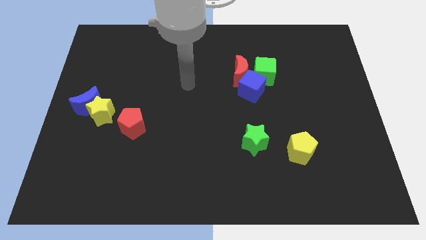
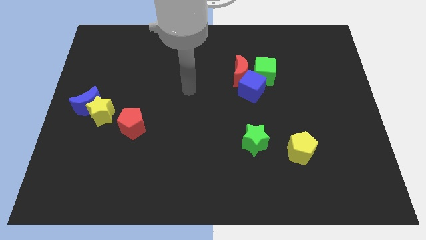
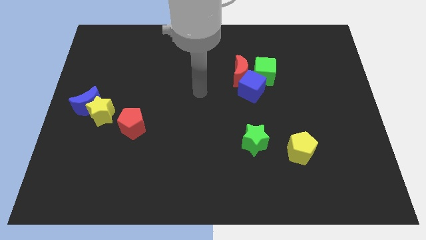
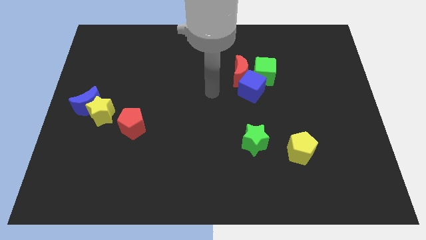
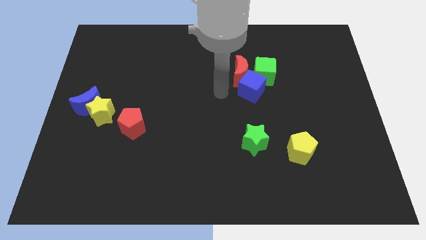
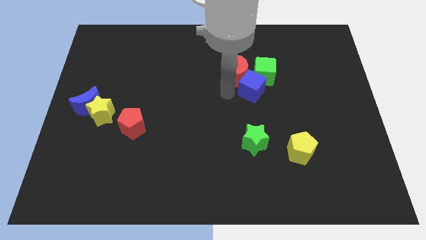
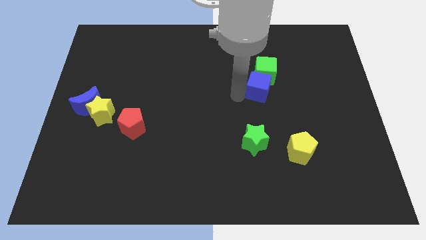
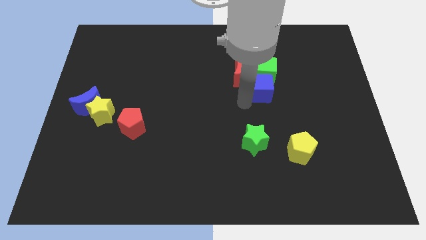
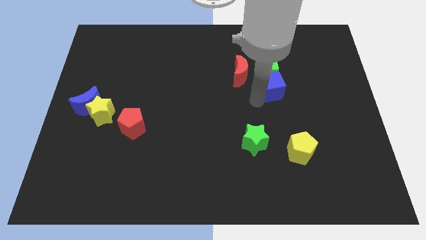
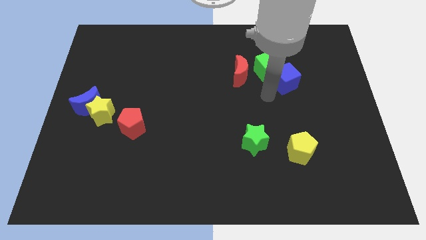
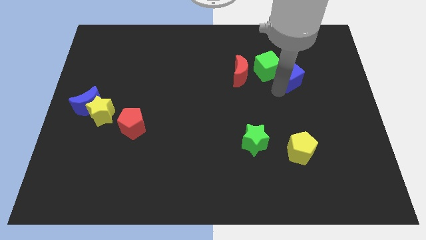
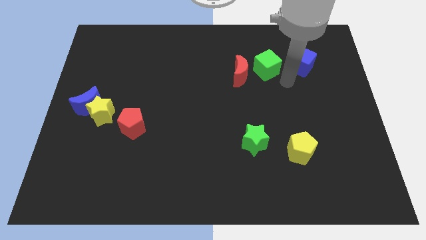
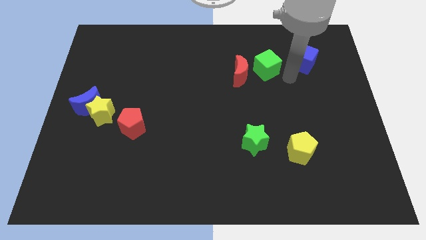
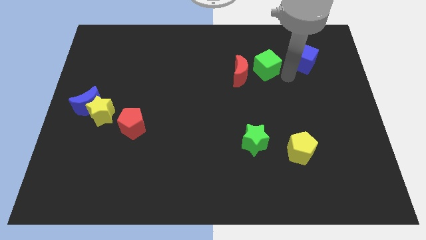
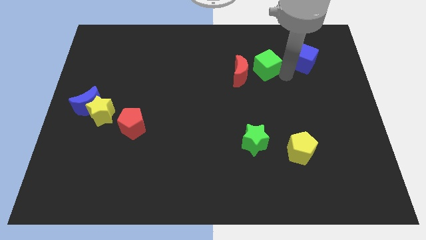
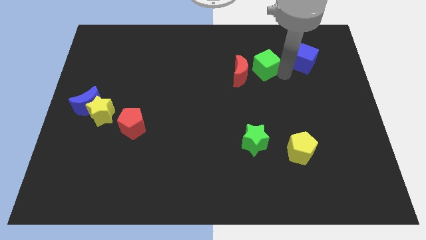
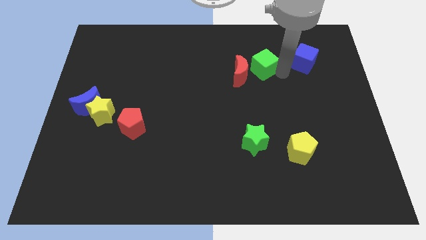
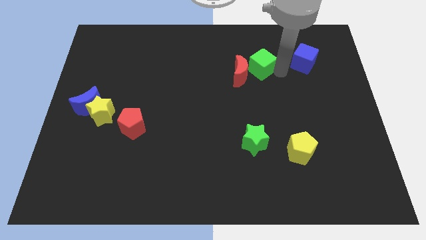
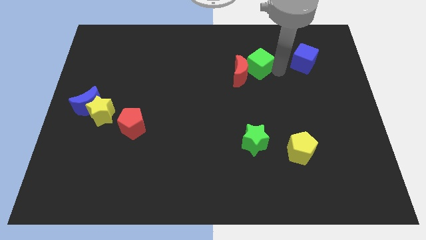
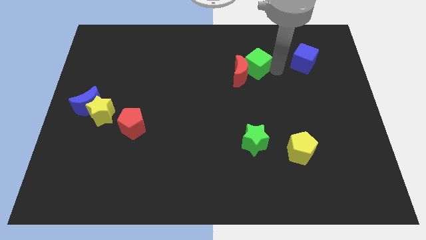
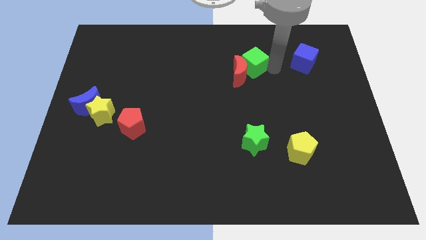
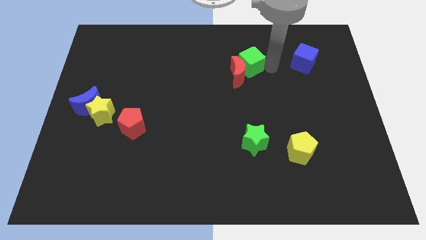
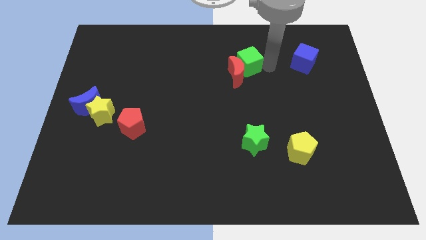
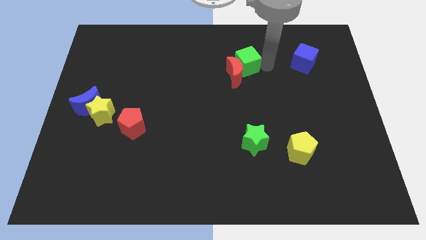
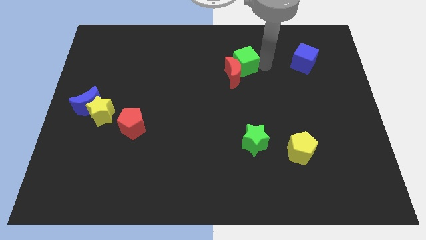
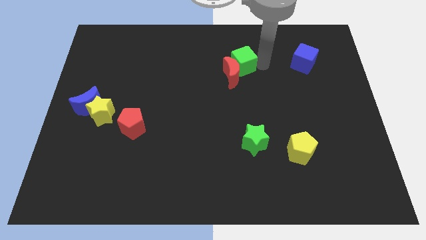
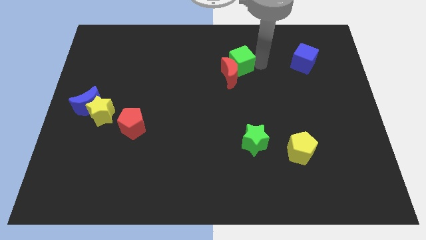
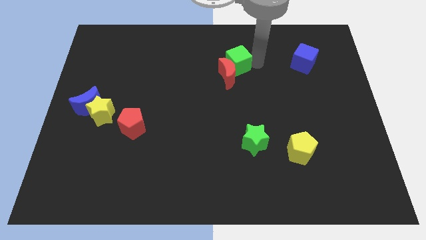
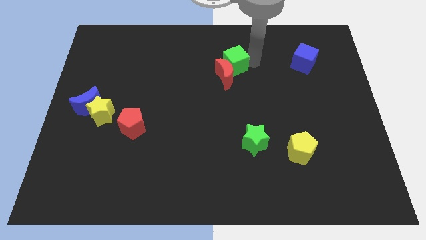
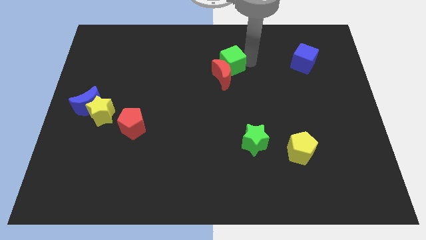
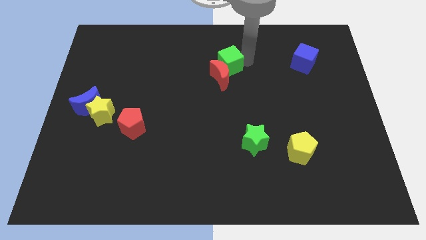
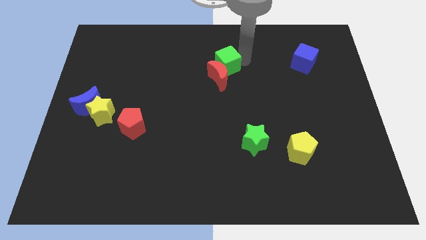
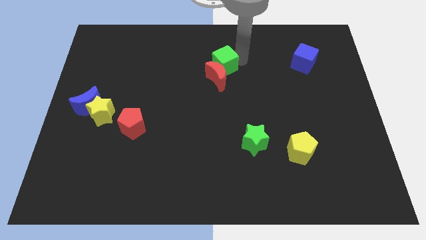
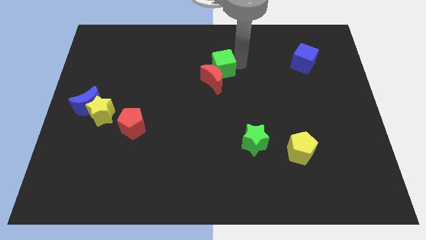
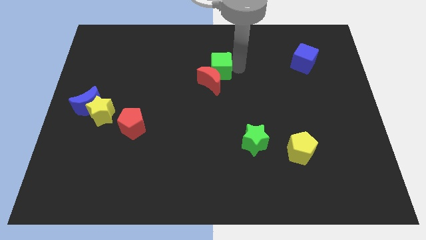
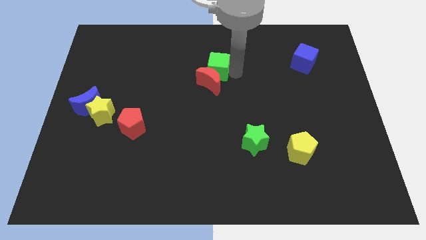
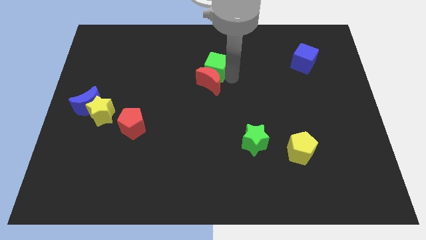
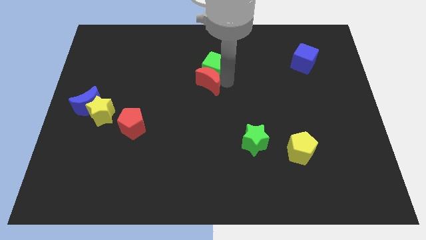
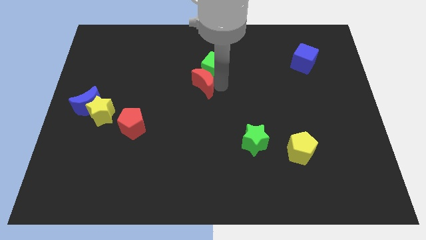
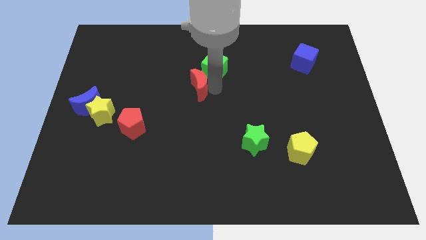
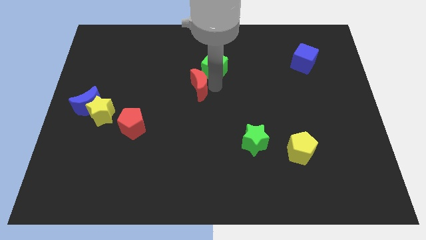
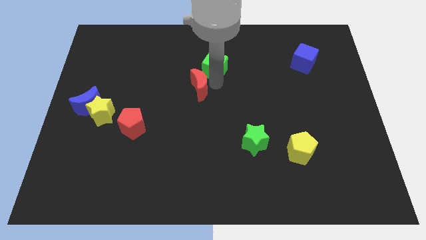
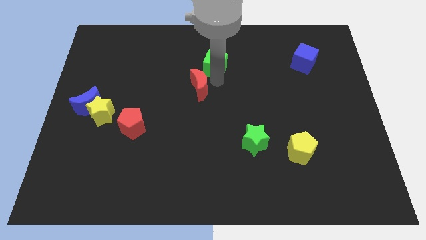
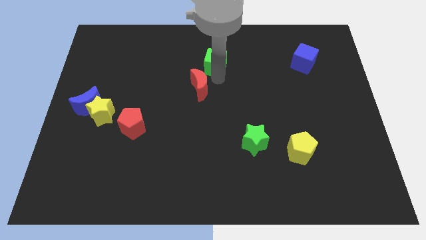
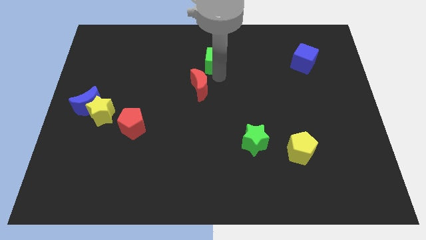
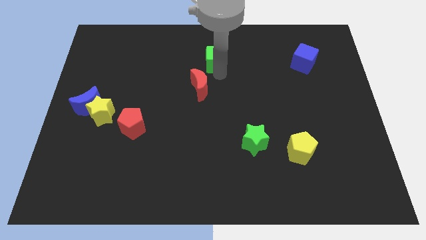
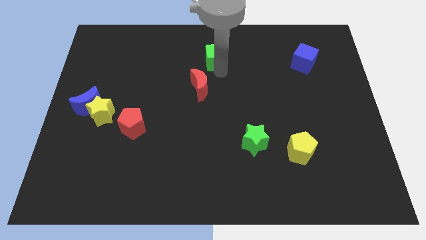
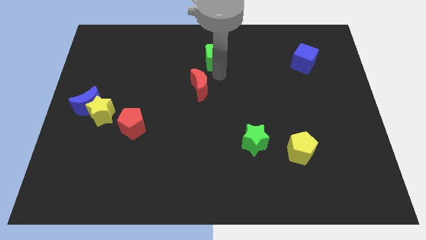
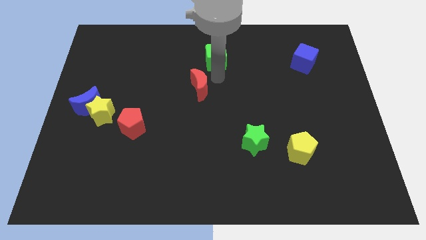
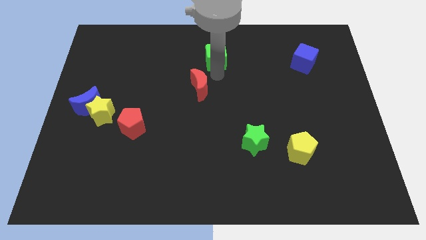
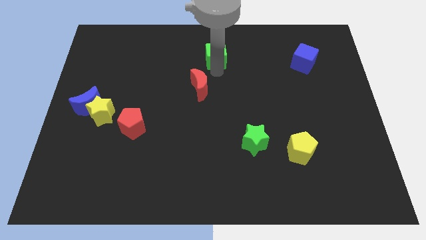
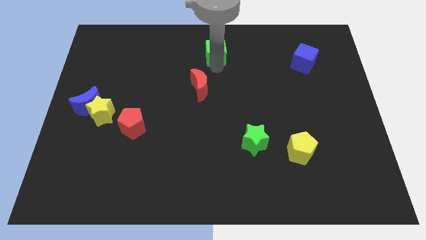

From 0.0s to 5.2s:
slide the green cube to the towards your base
